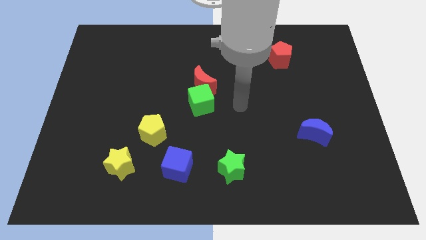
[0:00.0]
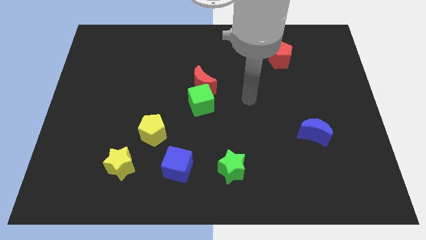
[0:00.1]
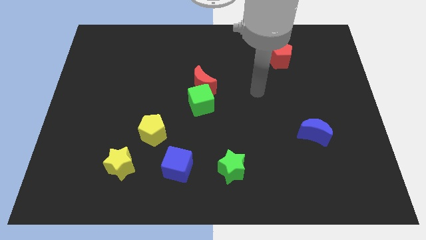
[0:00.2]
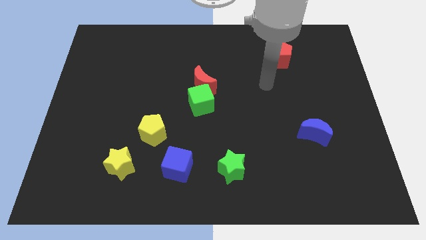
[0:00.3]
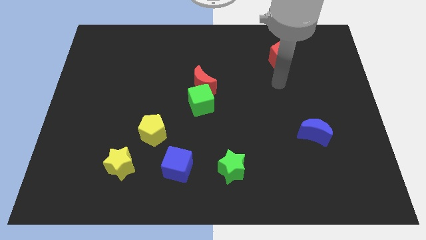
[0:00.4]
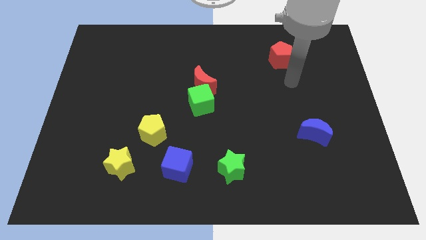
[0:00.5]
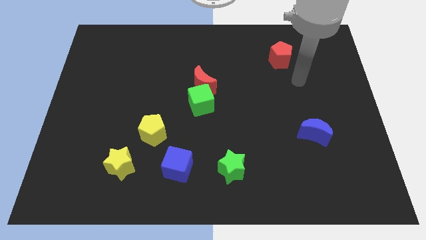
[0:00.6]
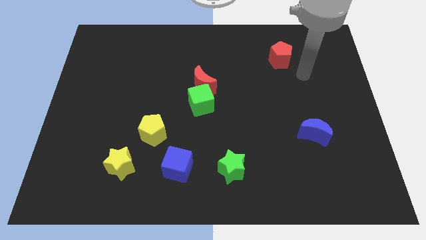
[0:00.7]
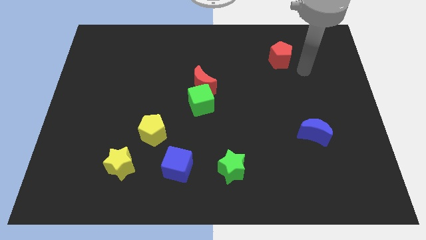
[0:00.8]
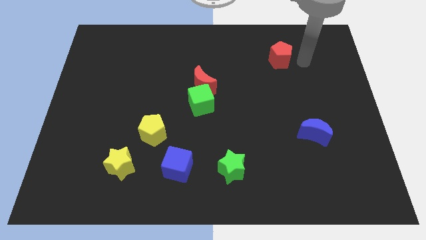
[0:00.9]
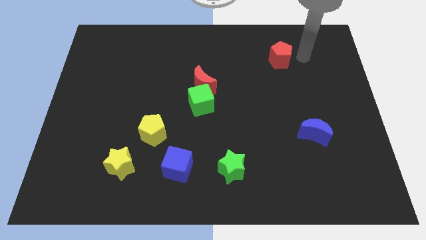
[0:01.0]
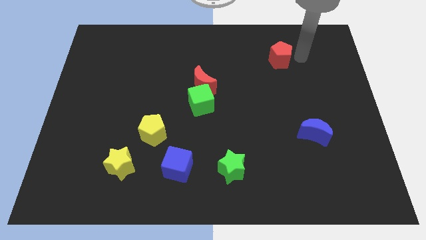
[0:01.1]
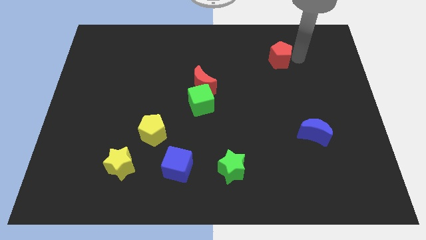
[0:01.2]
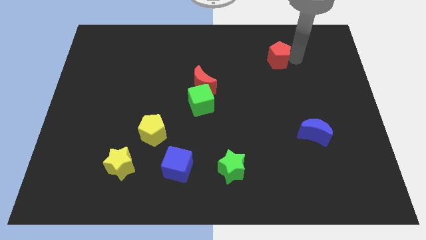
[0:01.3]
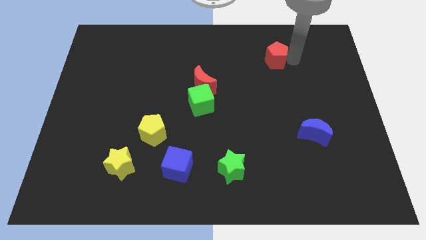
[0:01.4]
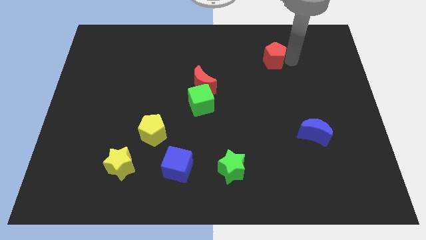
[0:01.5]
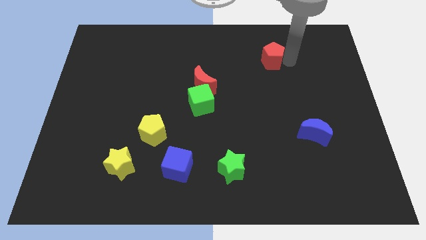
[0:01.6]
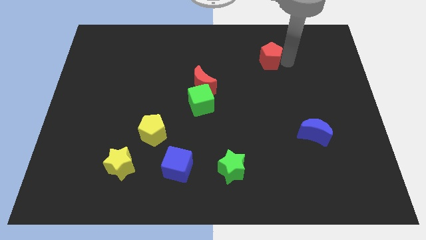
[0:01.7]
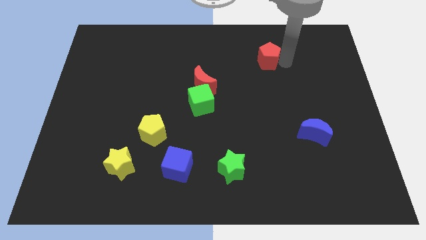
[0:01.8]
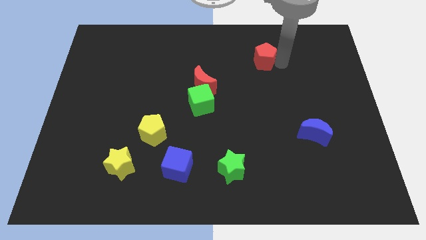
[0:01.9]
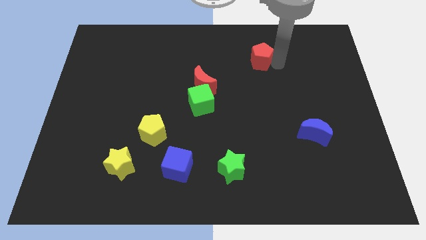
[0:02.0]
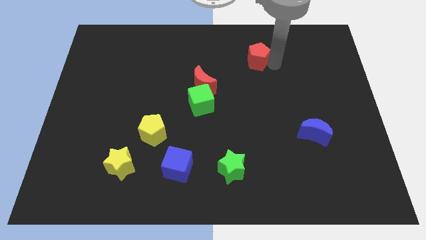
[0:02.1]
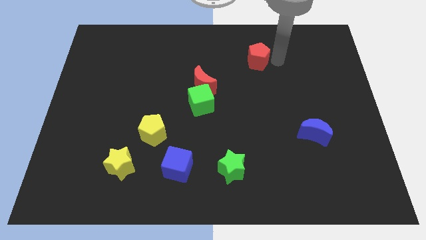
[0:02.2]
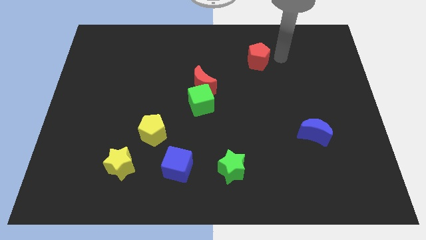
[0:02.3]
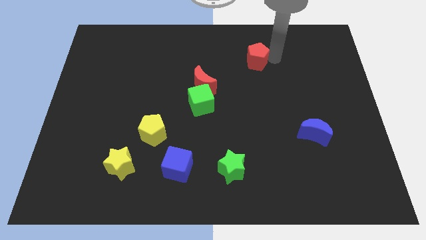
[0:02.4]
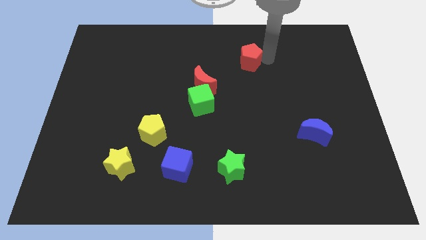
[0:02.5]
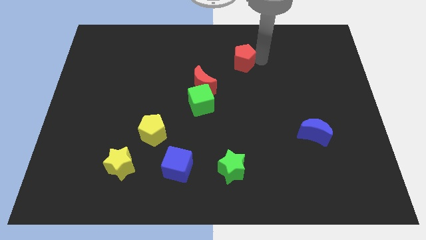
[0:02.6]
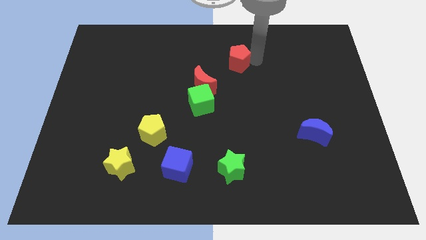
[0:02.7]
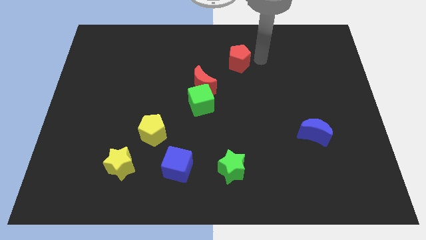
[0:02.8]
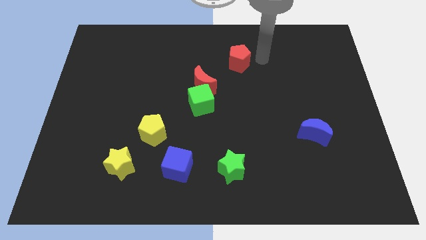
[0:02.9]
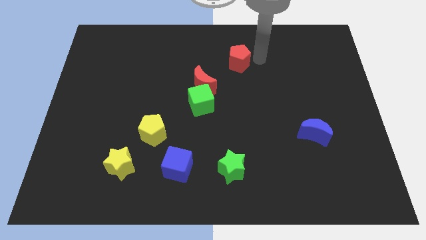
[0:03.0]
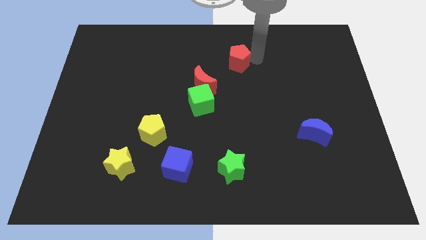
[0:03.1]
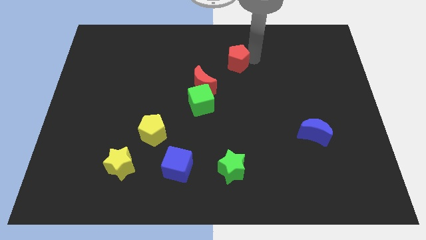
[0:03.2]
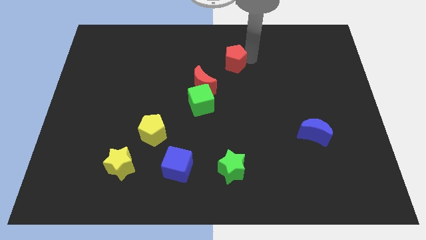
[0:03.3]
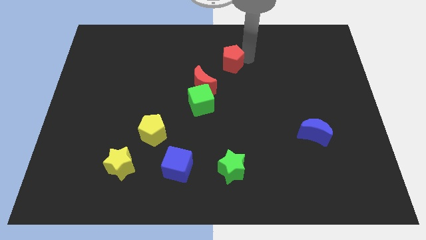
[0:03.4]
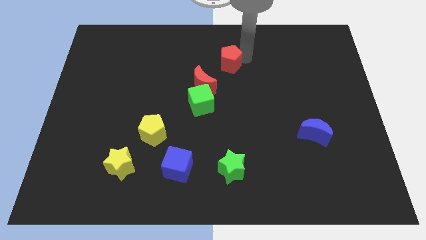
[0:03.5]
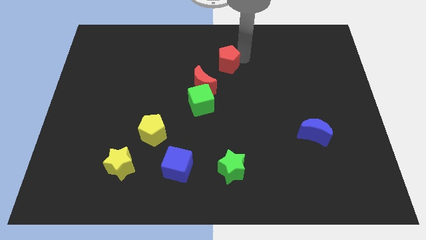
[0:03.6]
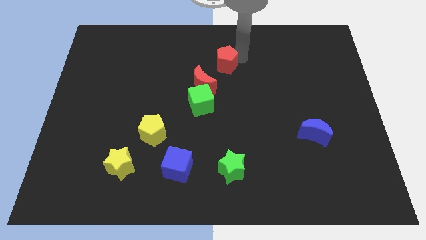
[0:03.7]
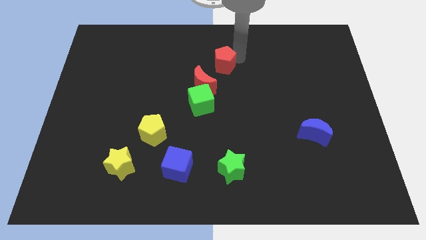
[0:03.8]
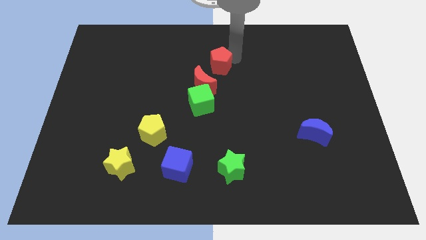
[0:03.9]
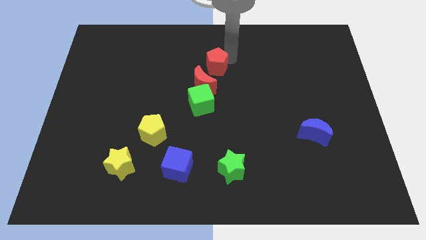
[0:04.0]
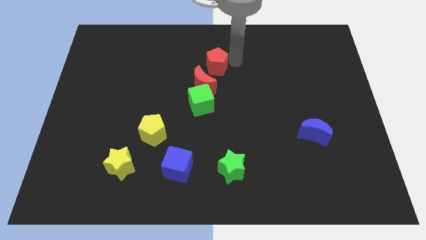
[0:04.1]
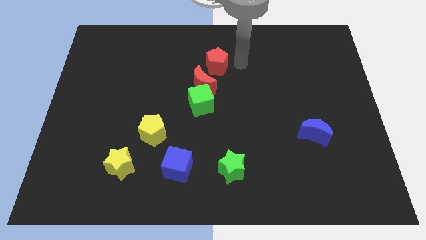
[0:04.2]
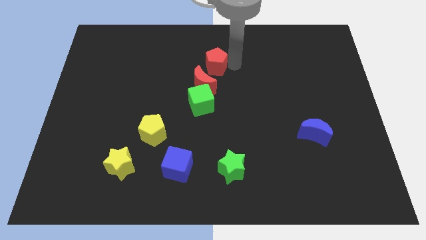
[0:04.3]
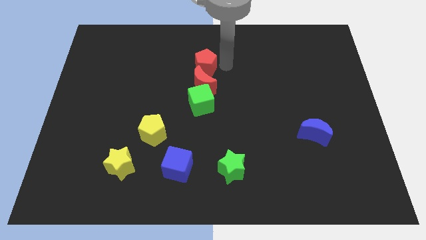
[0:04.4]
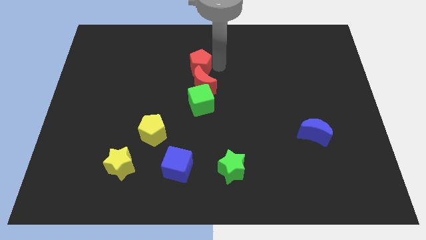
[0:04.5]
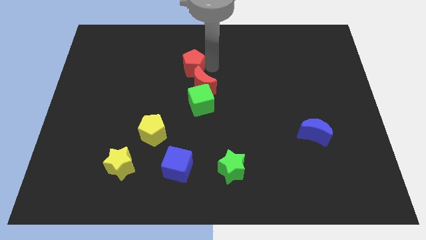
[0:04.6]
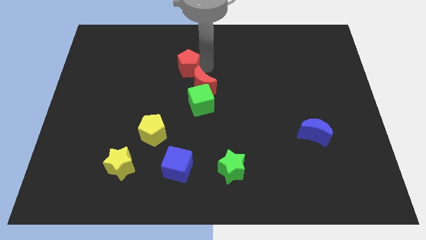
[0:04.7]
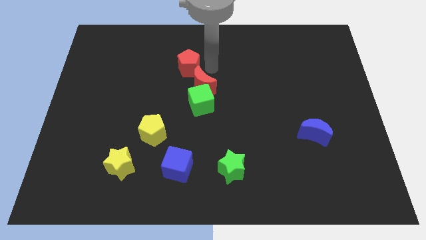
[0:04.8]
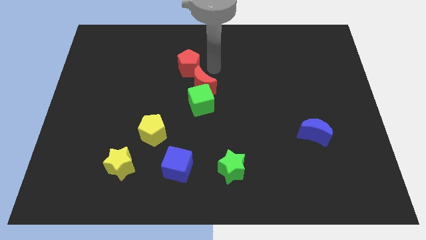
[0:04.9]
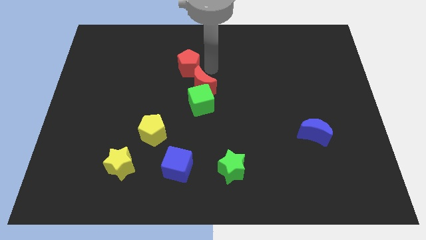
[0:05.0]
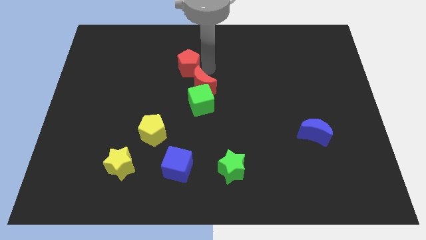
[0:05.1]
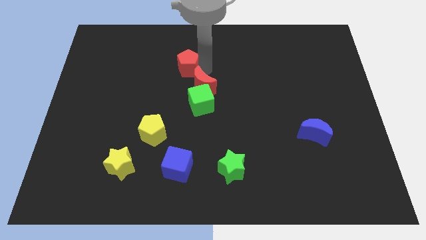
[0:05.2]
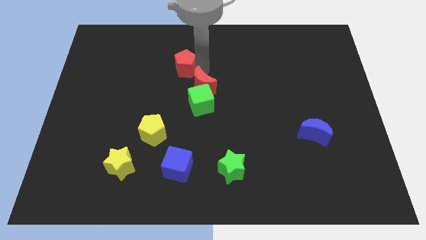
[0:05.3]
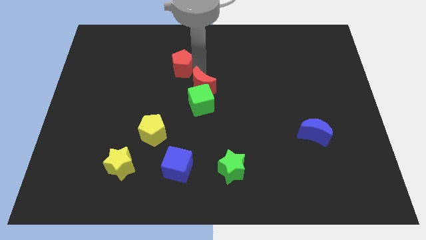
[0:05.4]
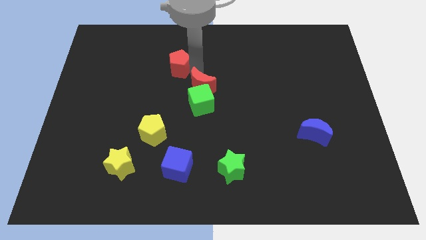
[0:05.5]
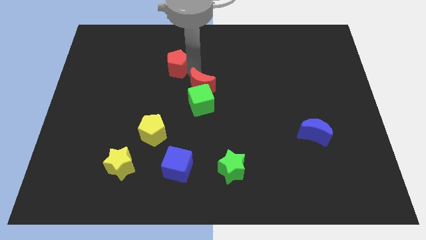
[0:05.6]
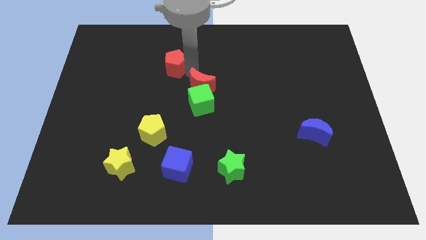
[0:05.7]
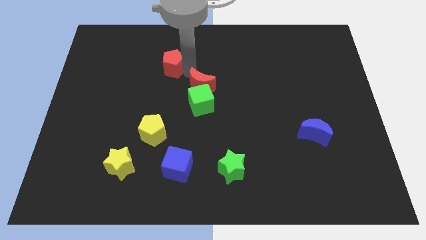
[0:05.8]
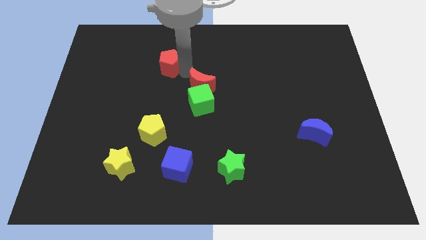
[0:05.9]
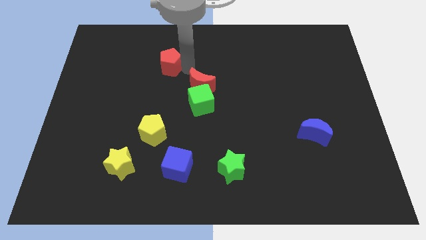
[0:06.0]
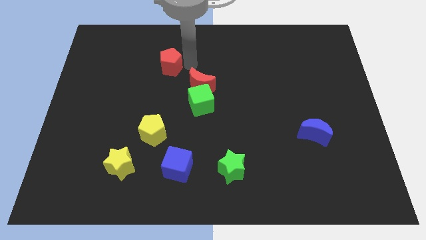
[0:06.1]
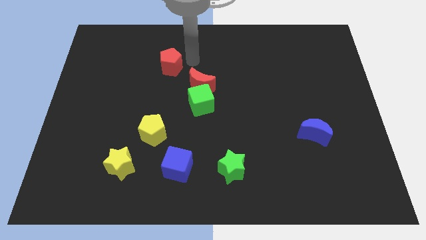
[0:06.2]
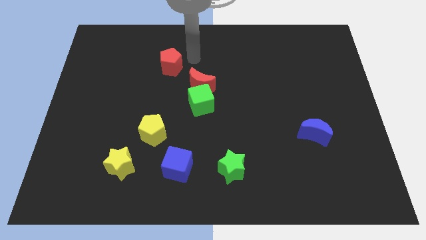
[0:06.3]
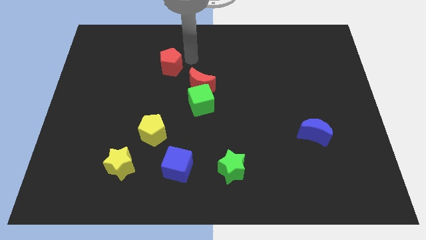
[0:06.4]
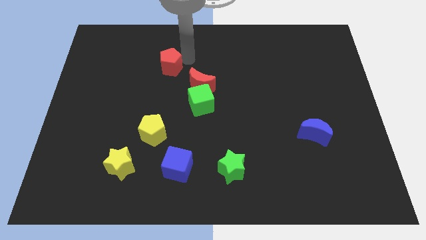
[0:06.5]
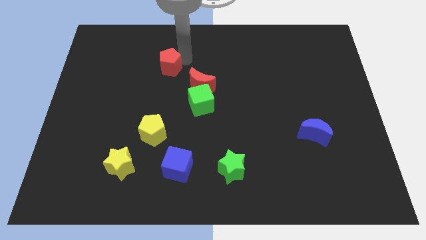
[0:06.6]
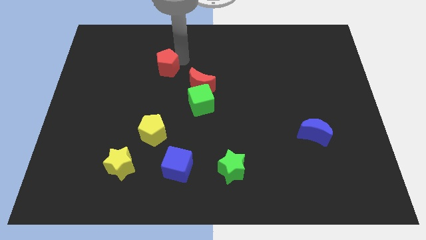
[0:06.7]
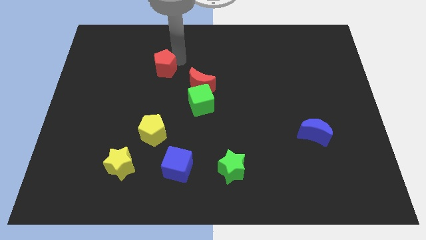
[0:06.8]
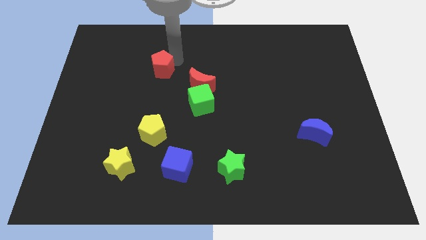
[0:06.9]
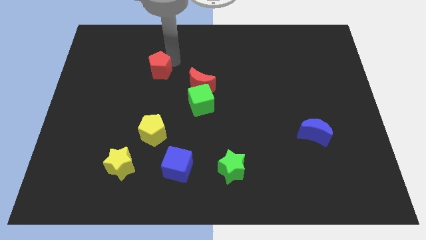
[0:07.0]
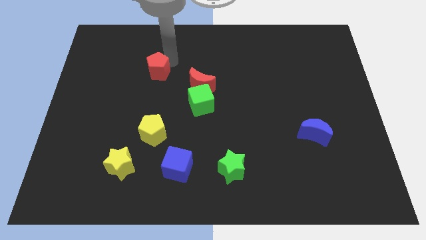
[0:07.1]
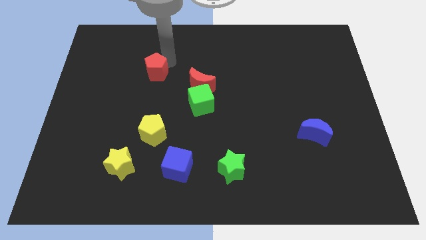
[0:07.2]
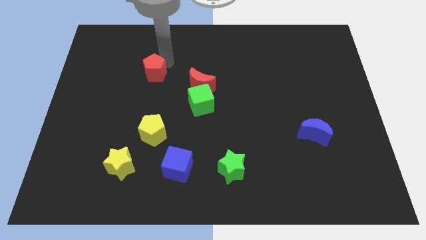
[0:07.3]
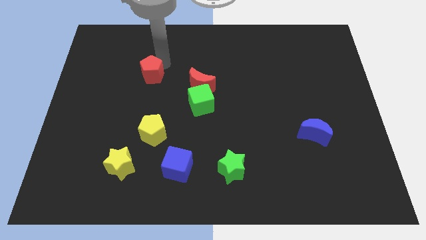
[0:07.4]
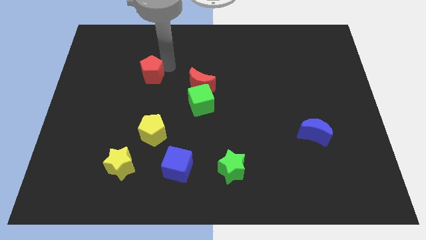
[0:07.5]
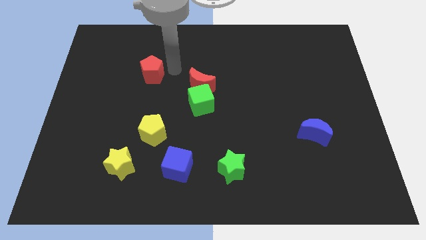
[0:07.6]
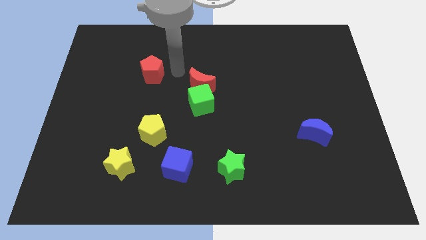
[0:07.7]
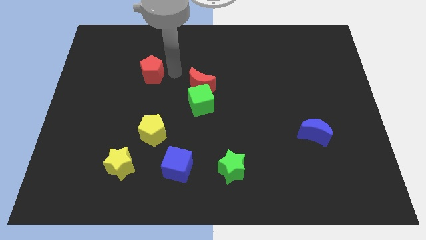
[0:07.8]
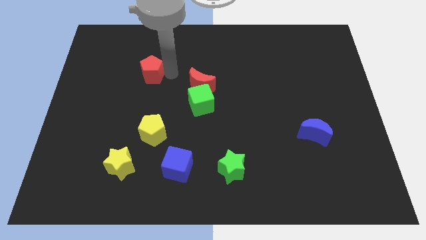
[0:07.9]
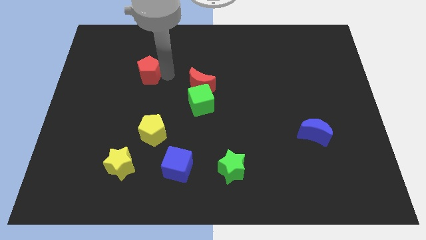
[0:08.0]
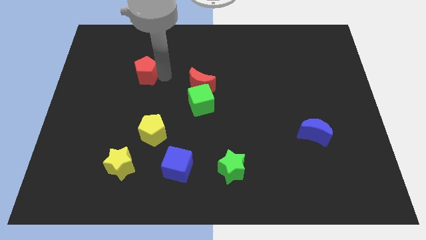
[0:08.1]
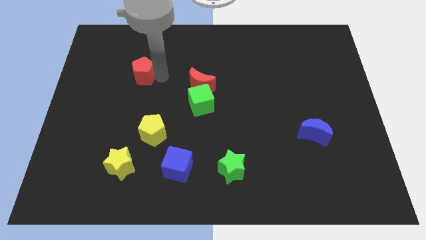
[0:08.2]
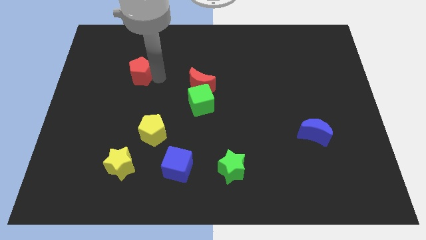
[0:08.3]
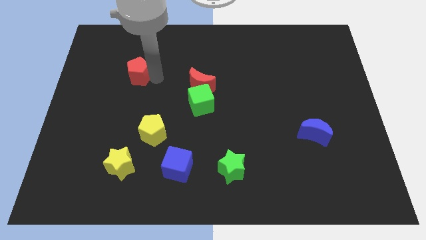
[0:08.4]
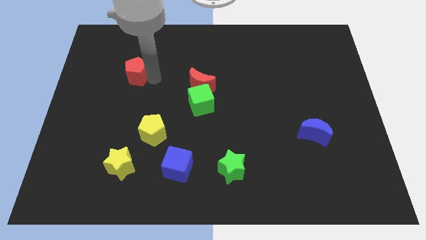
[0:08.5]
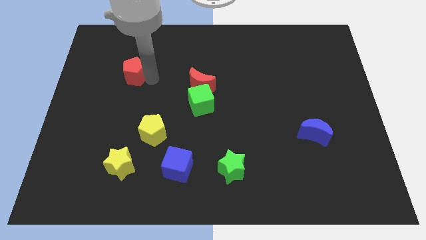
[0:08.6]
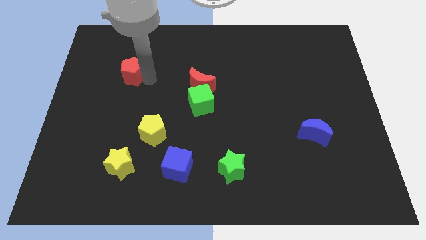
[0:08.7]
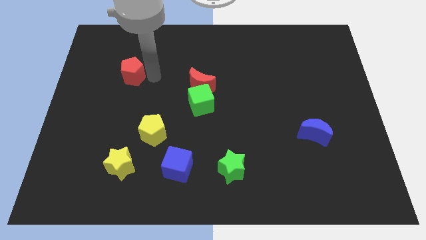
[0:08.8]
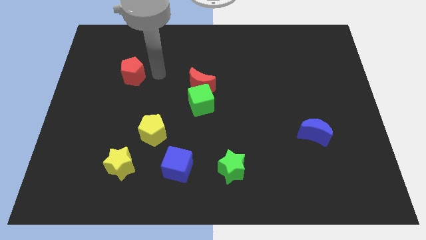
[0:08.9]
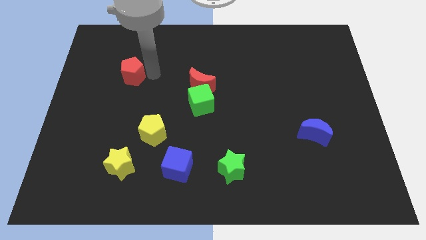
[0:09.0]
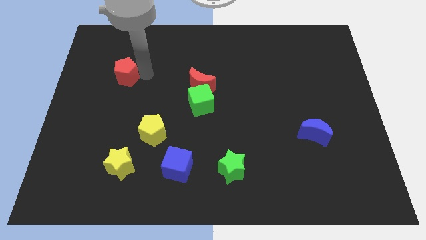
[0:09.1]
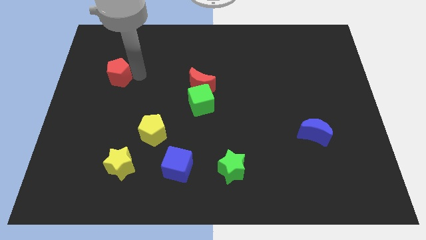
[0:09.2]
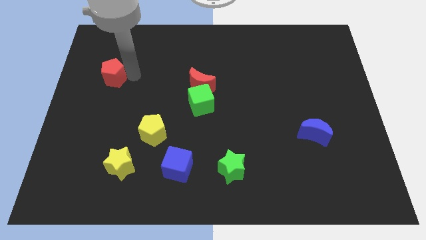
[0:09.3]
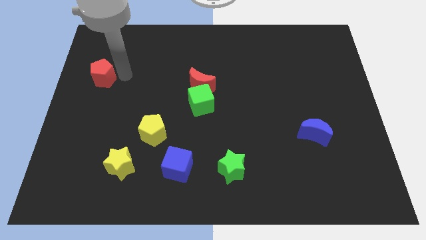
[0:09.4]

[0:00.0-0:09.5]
slide the red pentagon to the left side
